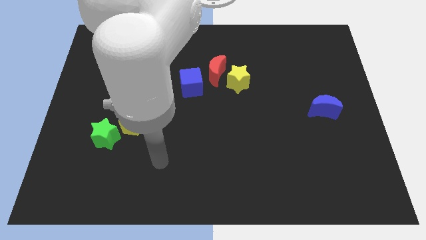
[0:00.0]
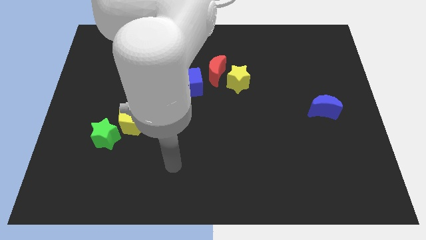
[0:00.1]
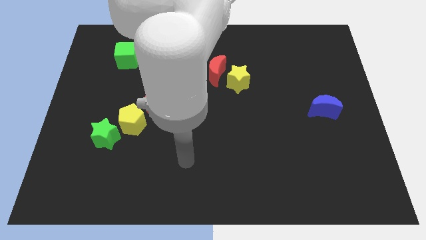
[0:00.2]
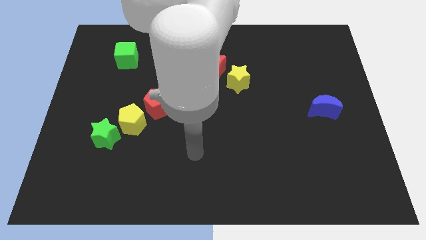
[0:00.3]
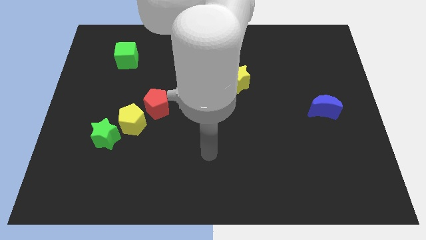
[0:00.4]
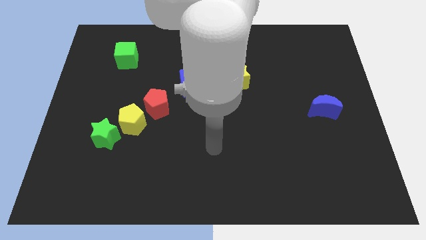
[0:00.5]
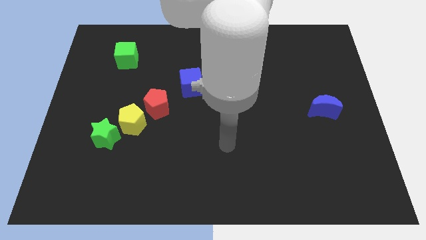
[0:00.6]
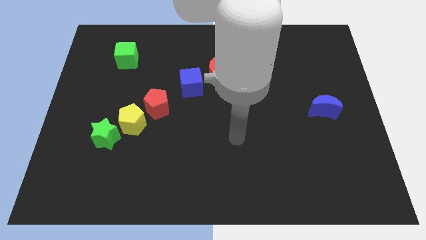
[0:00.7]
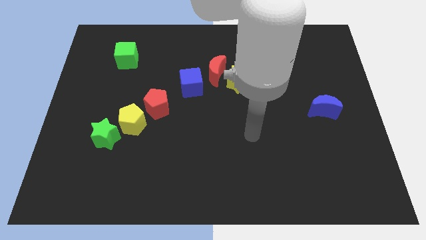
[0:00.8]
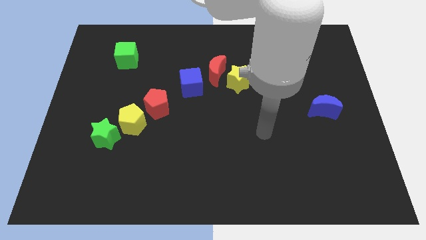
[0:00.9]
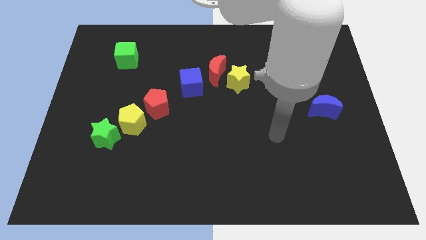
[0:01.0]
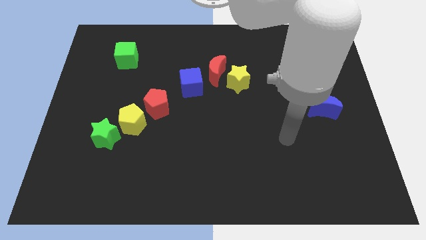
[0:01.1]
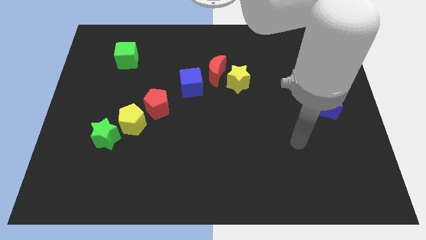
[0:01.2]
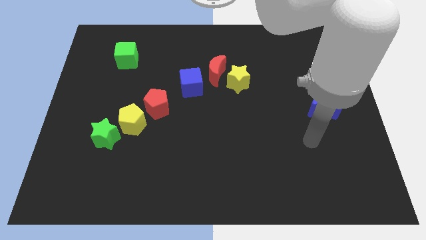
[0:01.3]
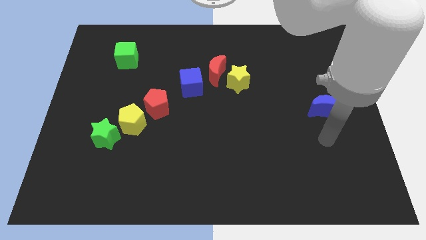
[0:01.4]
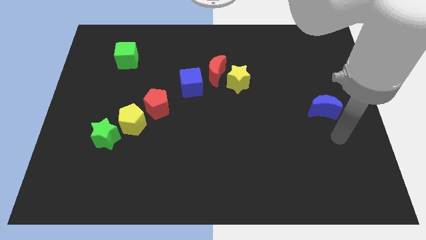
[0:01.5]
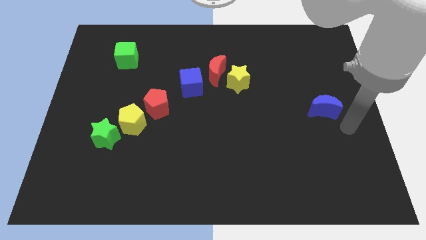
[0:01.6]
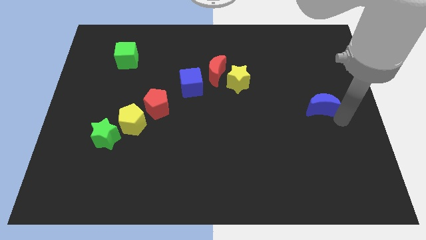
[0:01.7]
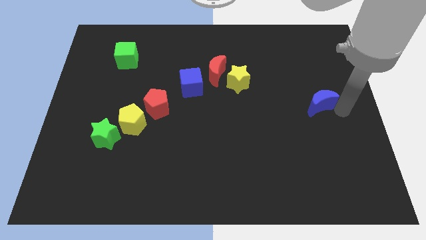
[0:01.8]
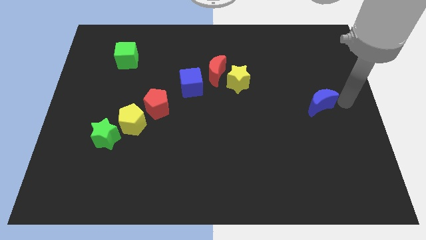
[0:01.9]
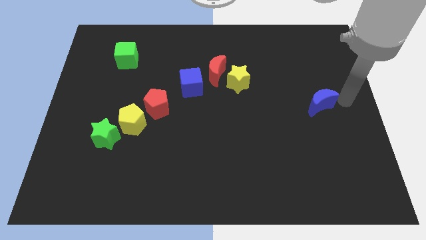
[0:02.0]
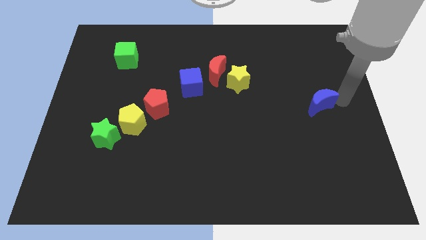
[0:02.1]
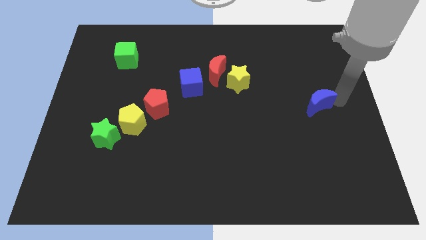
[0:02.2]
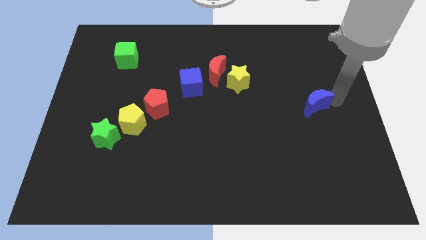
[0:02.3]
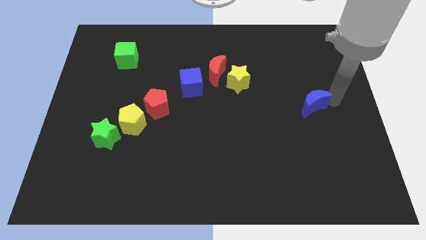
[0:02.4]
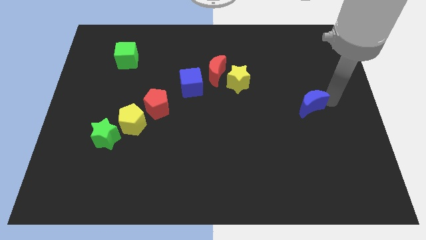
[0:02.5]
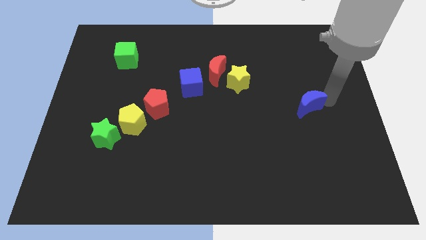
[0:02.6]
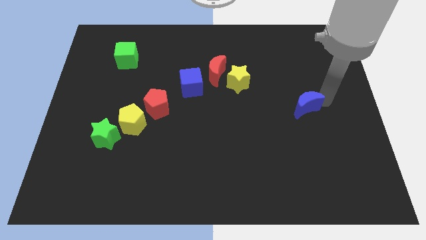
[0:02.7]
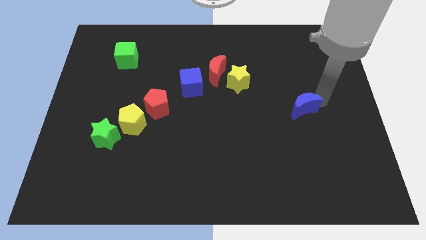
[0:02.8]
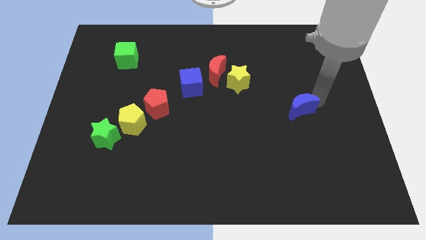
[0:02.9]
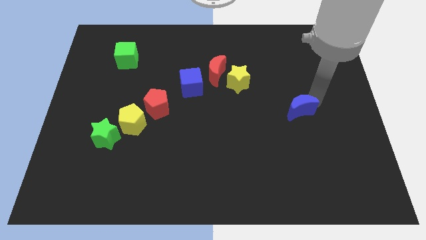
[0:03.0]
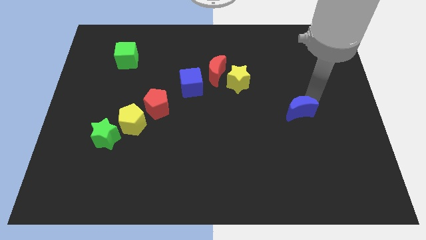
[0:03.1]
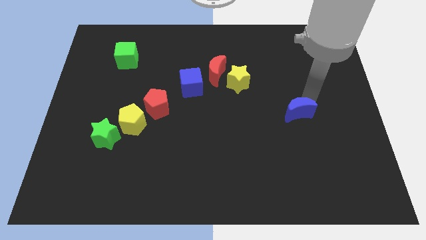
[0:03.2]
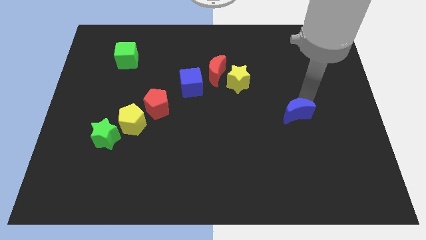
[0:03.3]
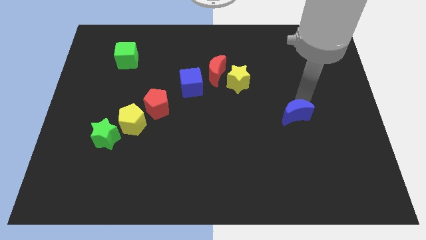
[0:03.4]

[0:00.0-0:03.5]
move the blue moon somewhat to the left

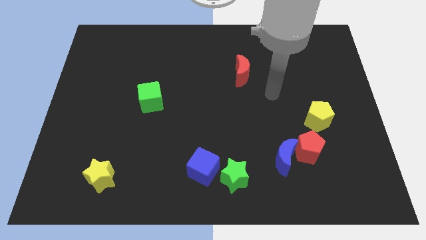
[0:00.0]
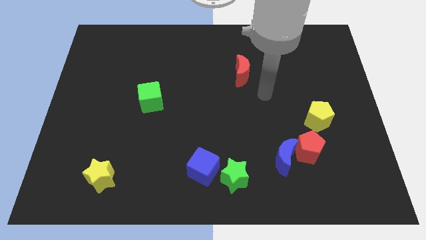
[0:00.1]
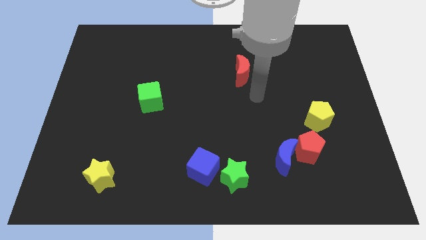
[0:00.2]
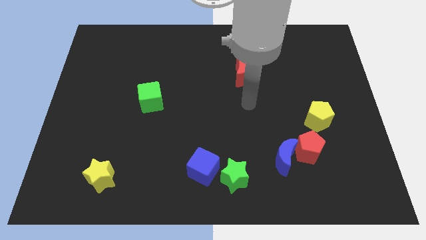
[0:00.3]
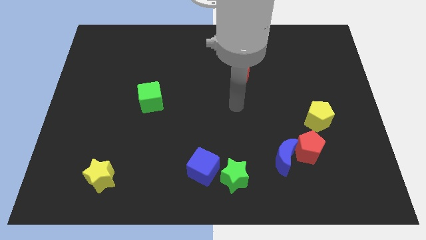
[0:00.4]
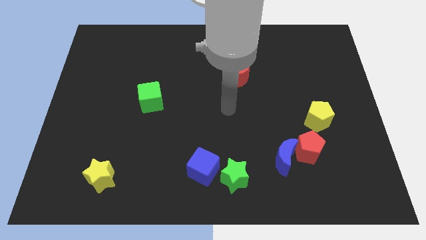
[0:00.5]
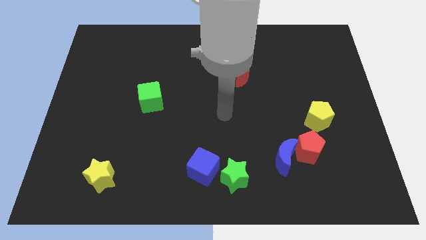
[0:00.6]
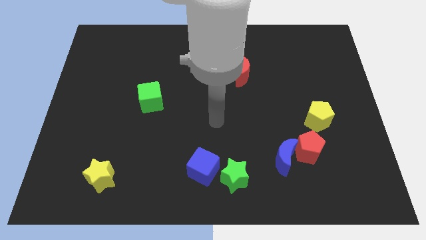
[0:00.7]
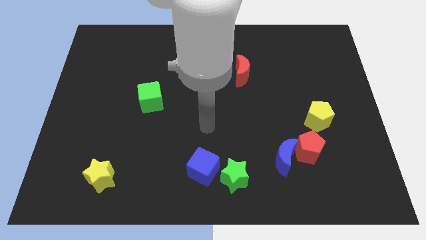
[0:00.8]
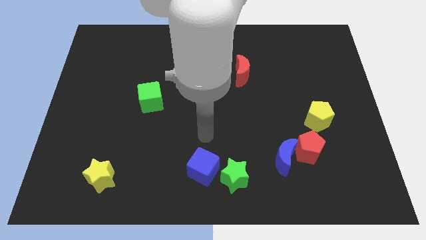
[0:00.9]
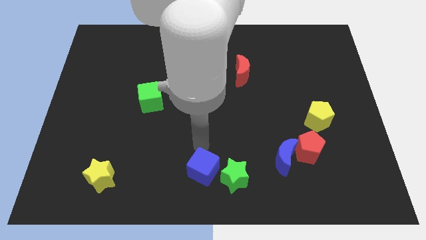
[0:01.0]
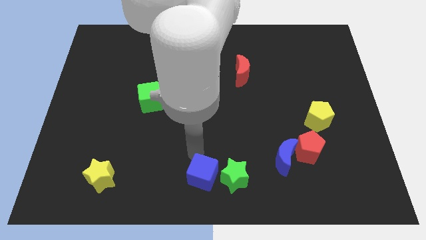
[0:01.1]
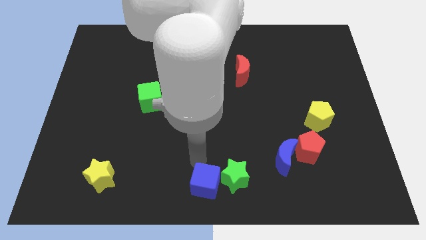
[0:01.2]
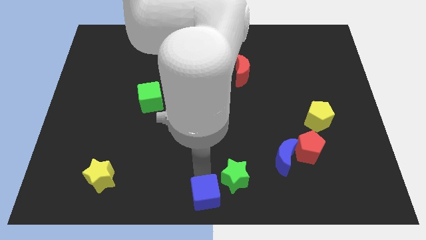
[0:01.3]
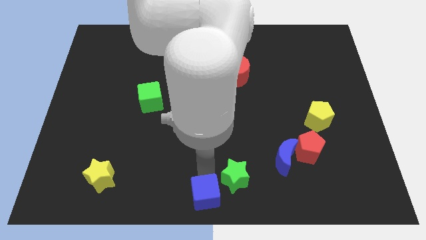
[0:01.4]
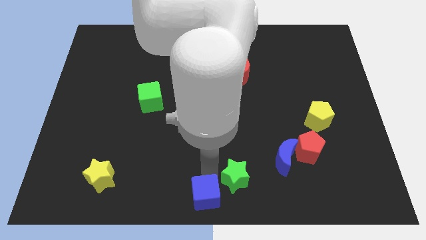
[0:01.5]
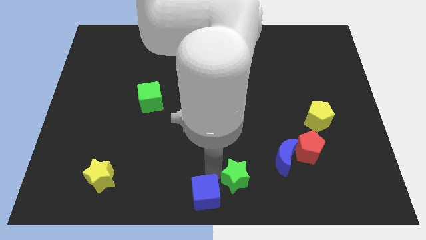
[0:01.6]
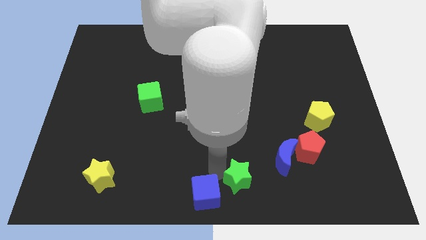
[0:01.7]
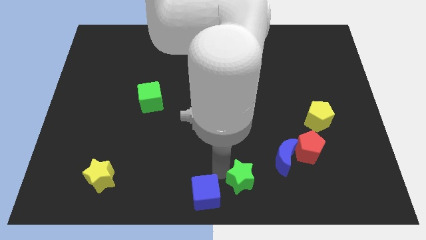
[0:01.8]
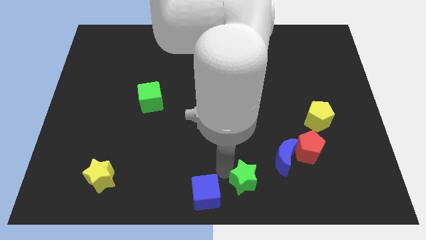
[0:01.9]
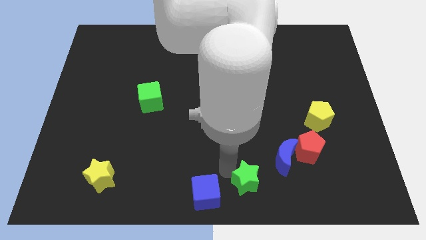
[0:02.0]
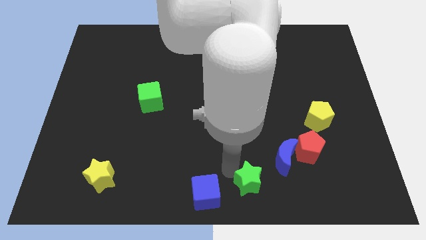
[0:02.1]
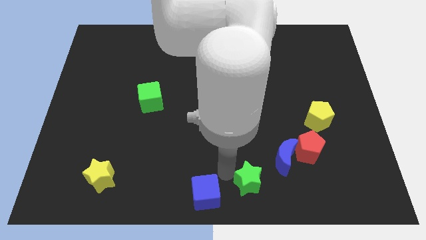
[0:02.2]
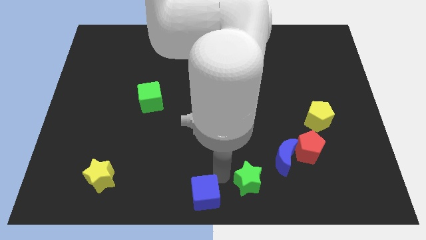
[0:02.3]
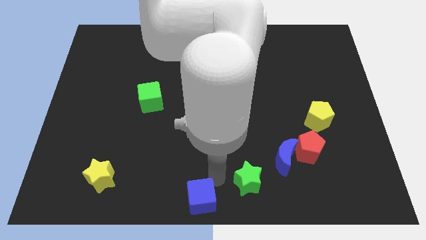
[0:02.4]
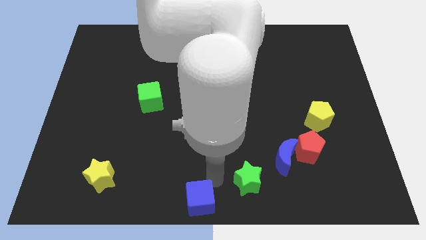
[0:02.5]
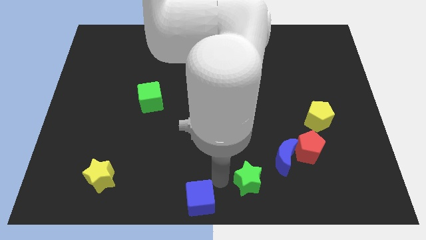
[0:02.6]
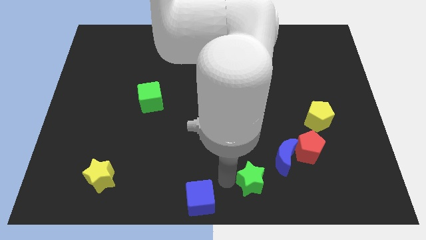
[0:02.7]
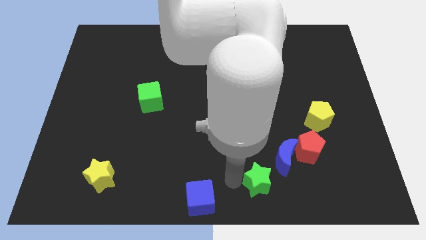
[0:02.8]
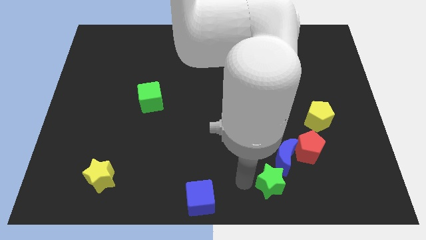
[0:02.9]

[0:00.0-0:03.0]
push the green star slightly to the right

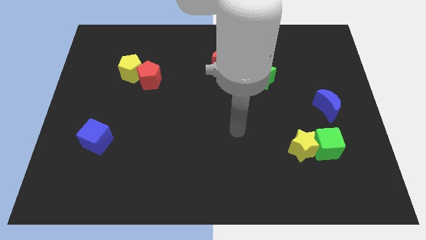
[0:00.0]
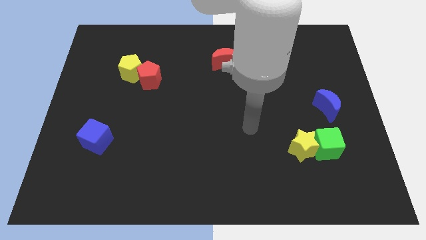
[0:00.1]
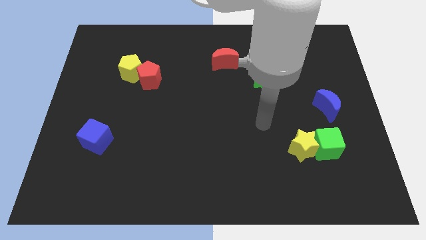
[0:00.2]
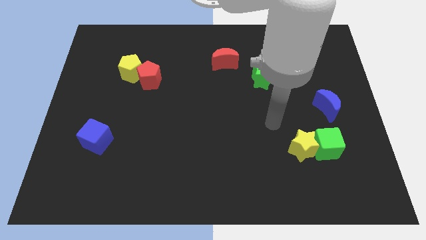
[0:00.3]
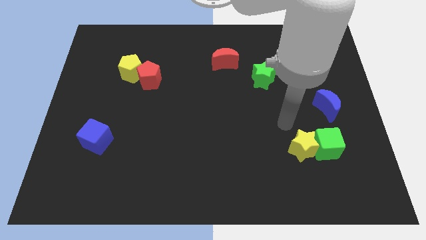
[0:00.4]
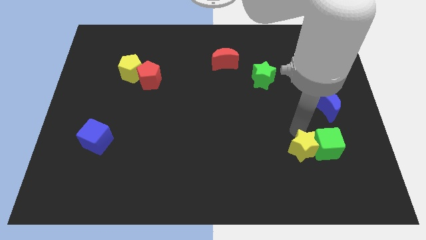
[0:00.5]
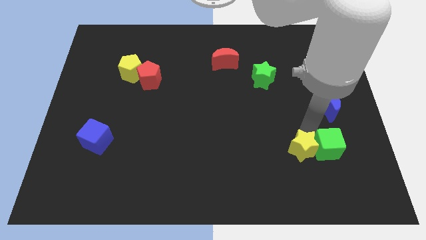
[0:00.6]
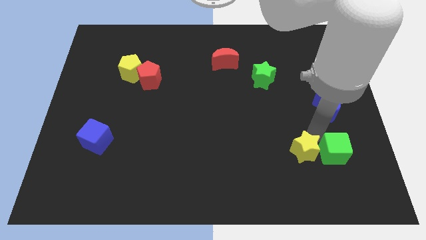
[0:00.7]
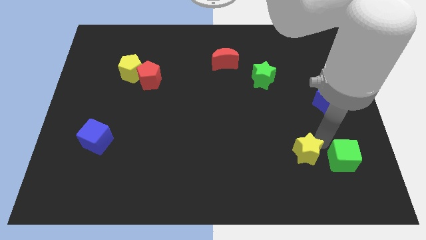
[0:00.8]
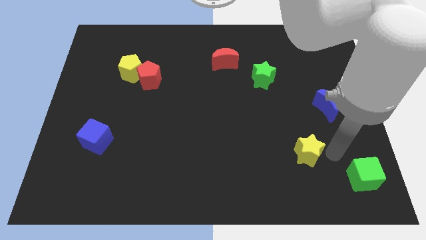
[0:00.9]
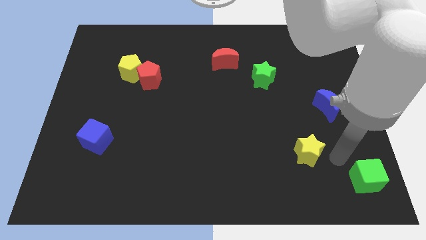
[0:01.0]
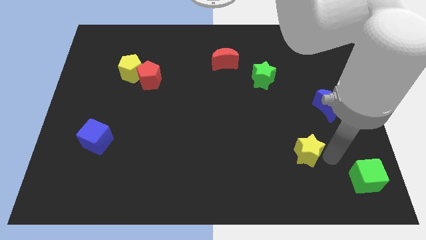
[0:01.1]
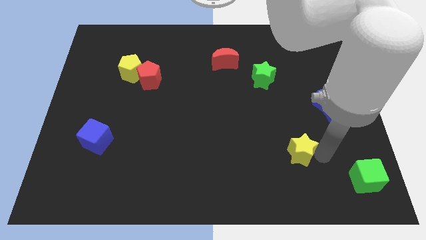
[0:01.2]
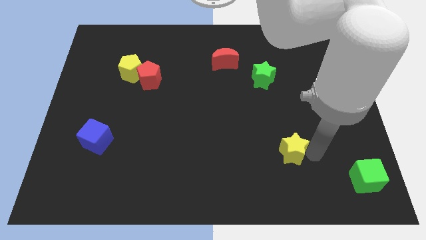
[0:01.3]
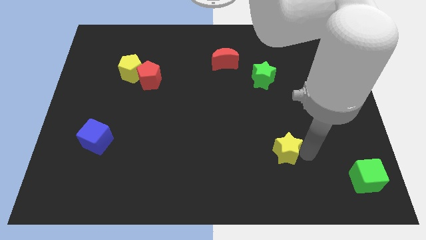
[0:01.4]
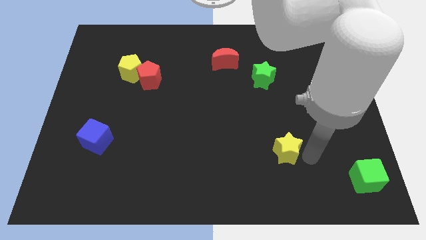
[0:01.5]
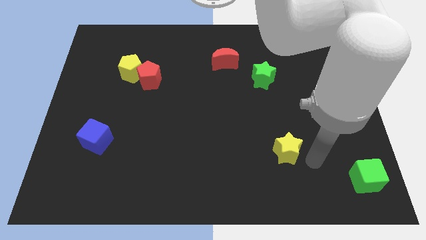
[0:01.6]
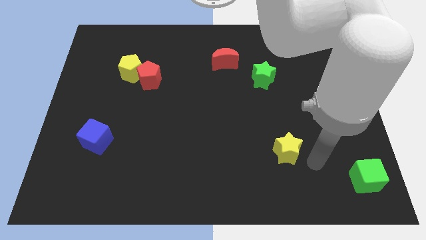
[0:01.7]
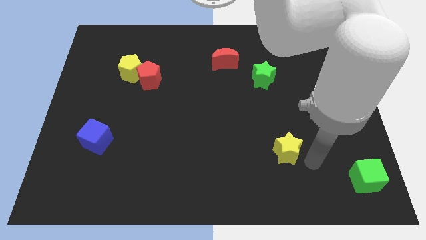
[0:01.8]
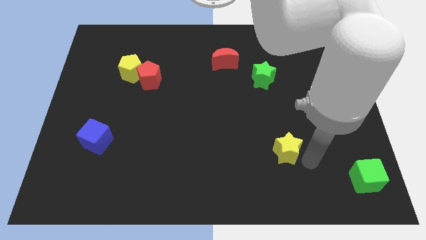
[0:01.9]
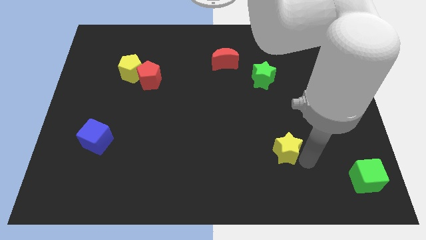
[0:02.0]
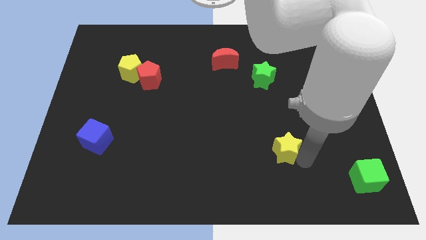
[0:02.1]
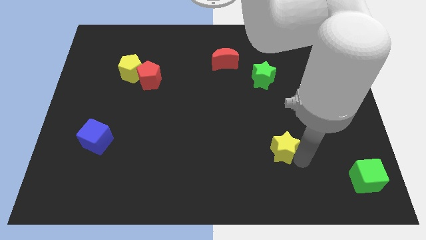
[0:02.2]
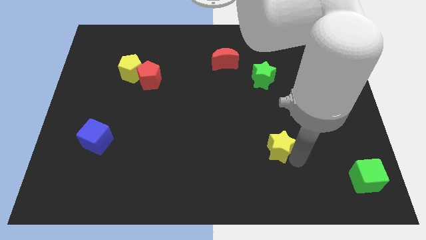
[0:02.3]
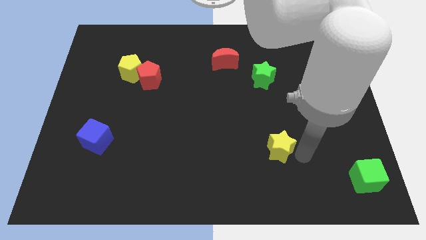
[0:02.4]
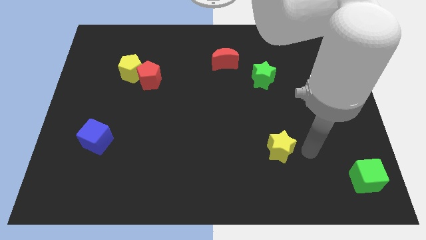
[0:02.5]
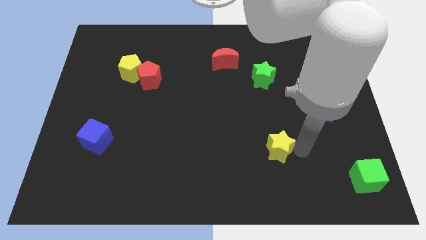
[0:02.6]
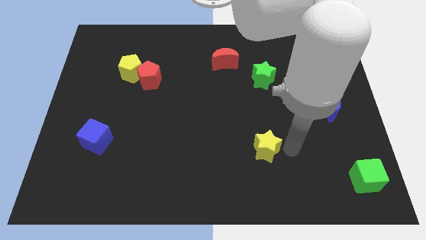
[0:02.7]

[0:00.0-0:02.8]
slightly slide the yellow star to the left
